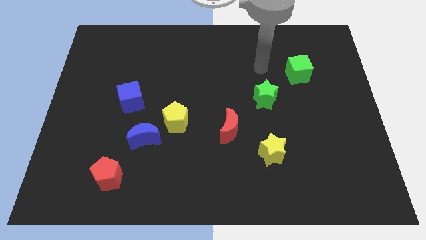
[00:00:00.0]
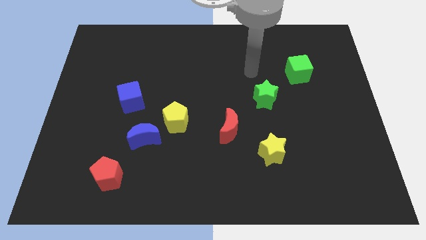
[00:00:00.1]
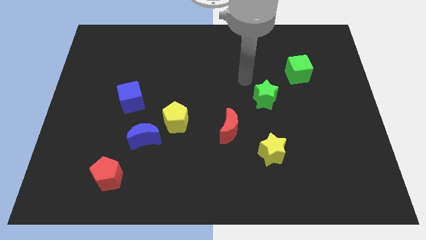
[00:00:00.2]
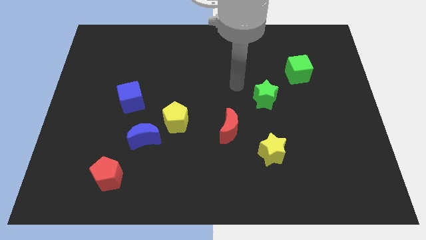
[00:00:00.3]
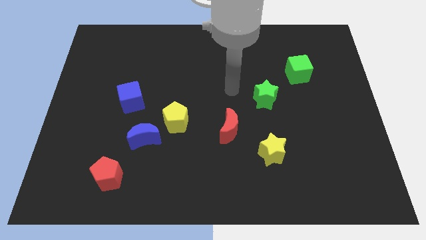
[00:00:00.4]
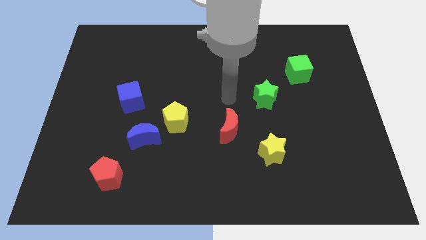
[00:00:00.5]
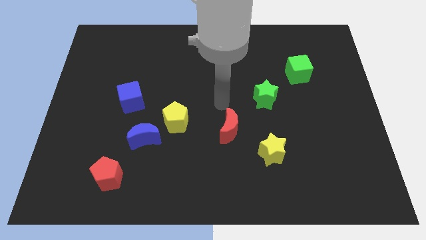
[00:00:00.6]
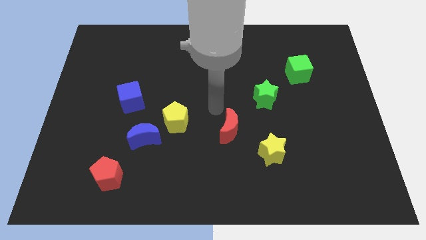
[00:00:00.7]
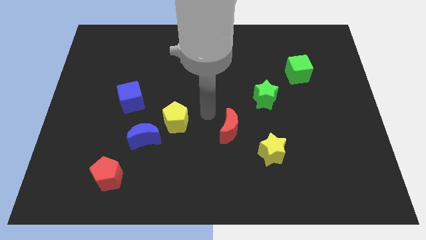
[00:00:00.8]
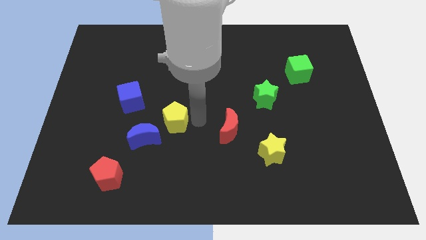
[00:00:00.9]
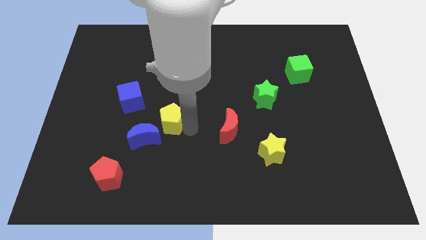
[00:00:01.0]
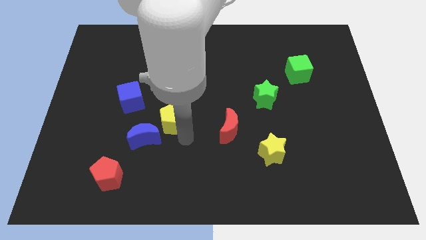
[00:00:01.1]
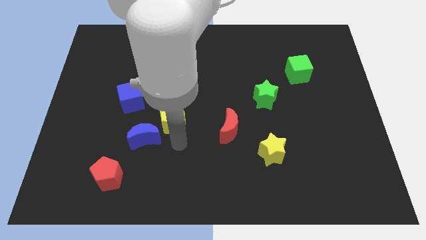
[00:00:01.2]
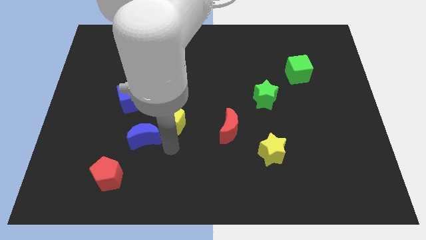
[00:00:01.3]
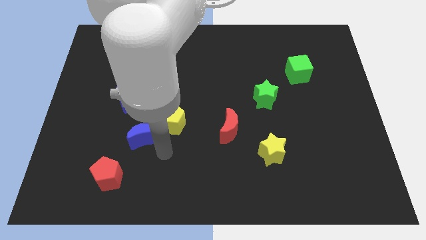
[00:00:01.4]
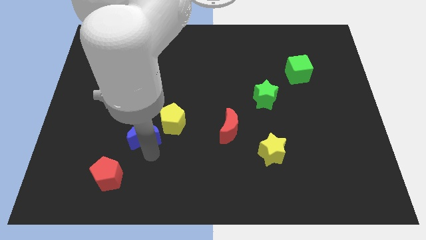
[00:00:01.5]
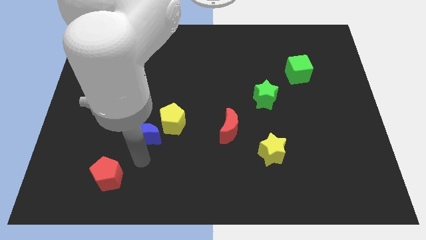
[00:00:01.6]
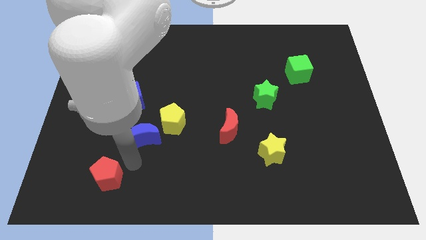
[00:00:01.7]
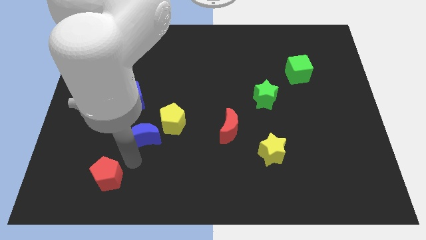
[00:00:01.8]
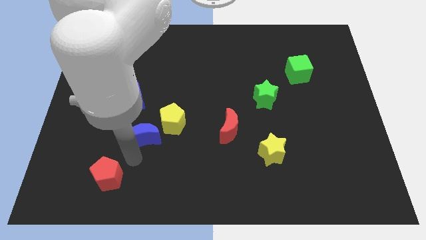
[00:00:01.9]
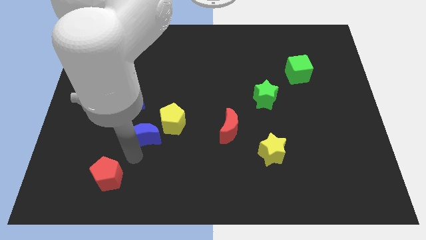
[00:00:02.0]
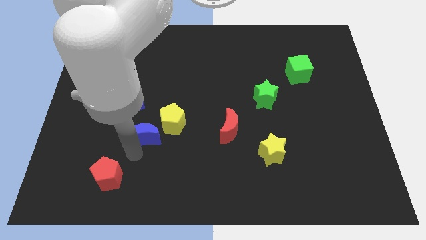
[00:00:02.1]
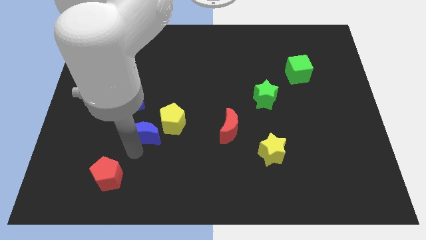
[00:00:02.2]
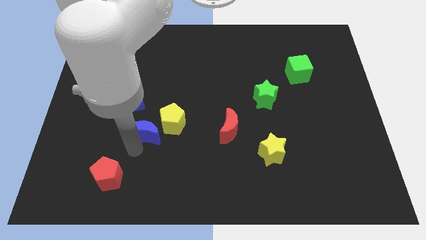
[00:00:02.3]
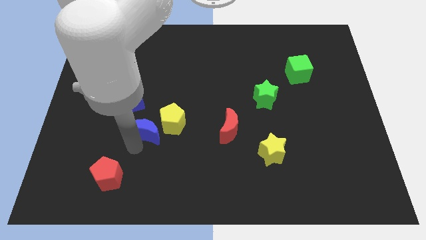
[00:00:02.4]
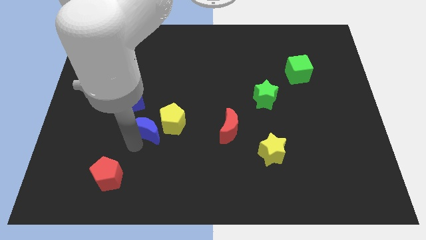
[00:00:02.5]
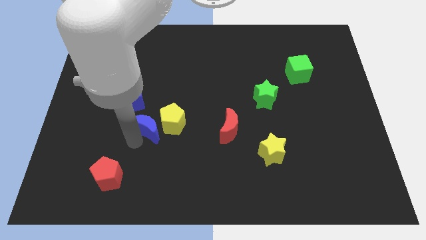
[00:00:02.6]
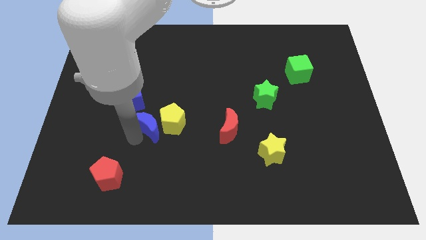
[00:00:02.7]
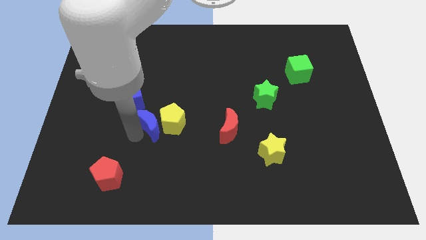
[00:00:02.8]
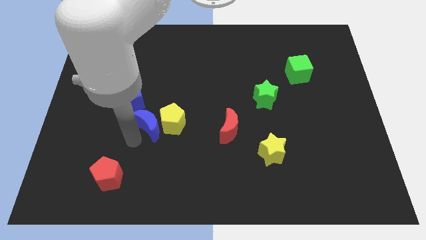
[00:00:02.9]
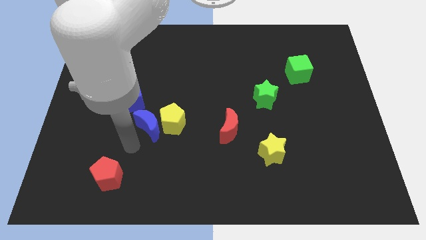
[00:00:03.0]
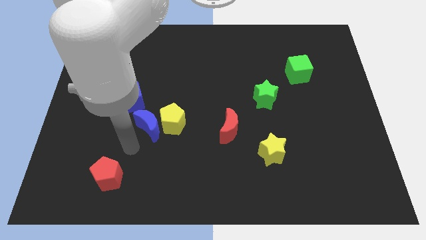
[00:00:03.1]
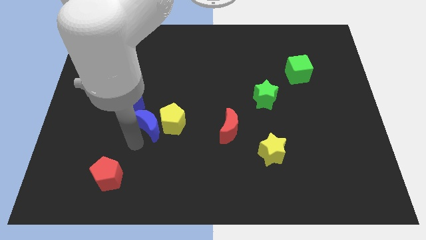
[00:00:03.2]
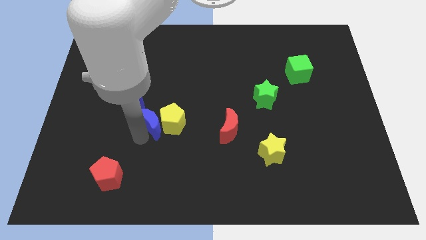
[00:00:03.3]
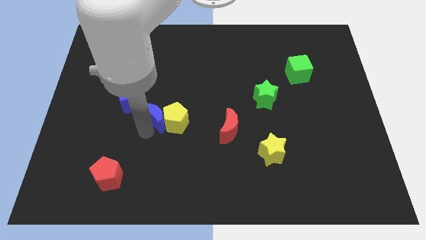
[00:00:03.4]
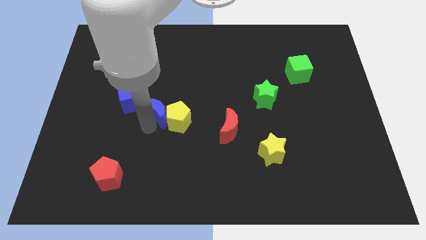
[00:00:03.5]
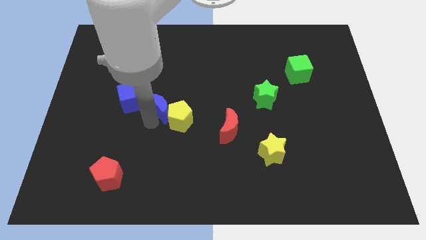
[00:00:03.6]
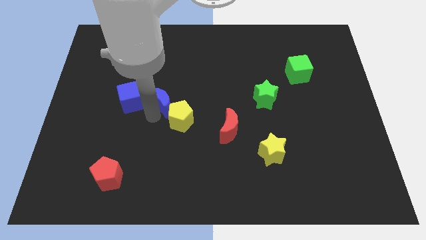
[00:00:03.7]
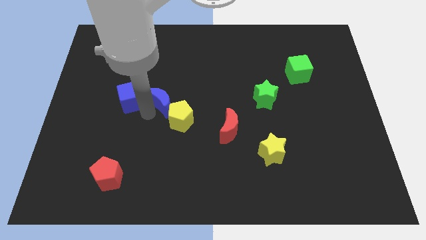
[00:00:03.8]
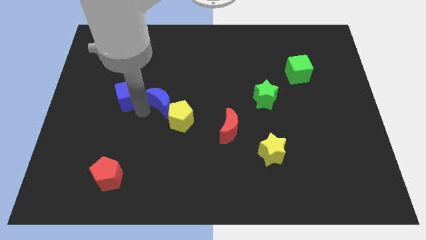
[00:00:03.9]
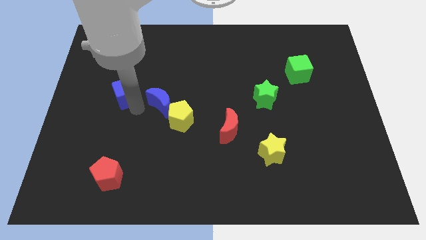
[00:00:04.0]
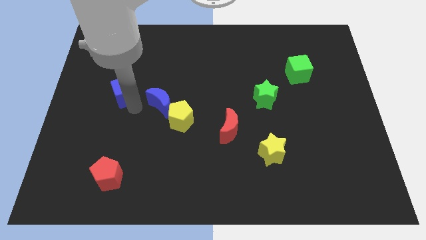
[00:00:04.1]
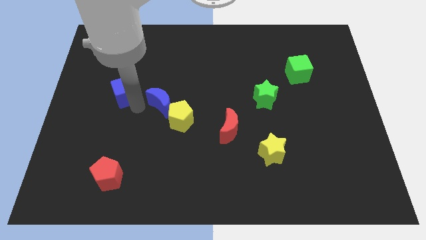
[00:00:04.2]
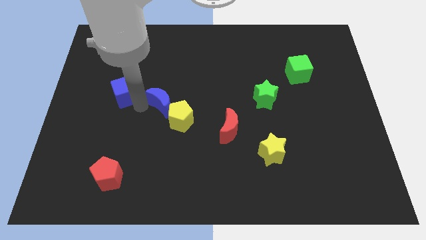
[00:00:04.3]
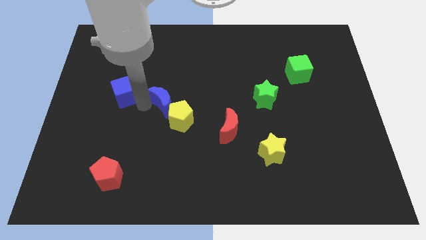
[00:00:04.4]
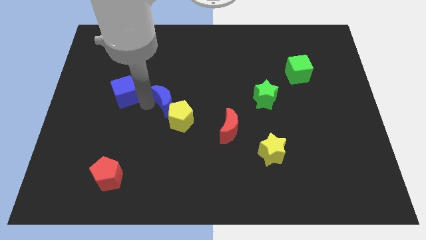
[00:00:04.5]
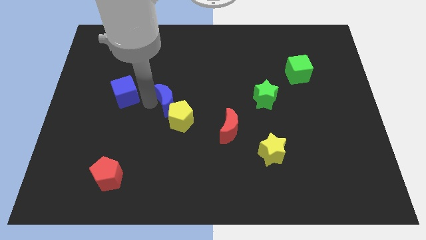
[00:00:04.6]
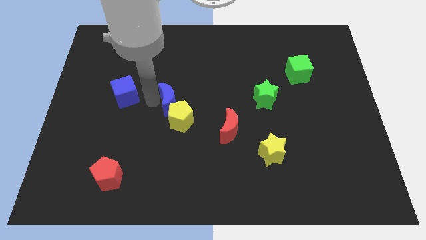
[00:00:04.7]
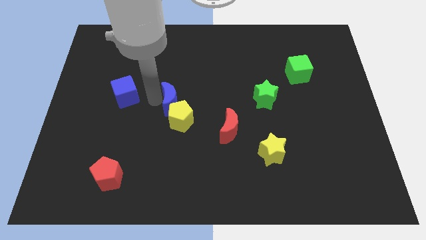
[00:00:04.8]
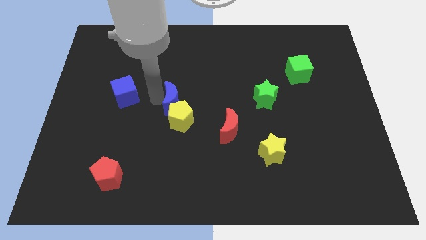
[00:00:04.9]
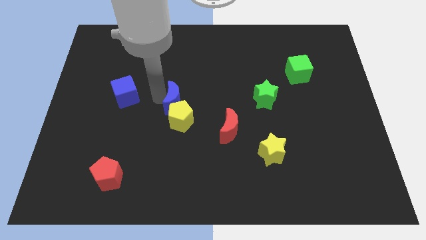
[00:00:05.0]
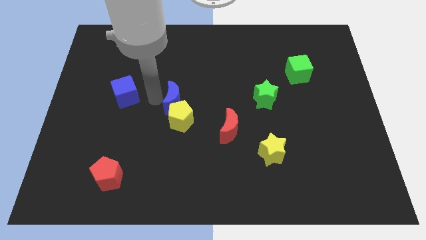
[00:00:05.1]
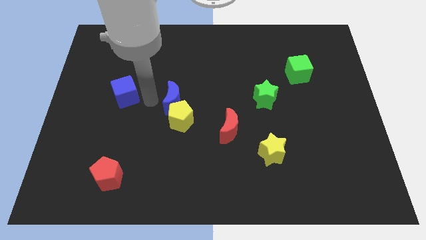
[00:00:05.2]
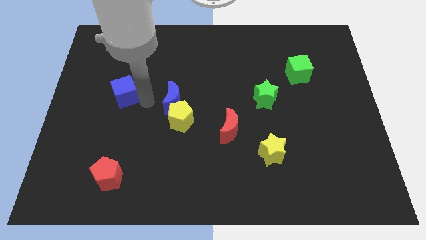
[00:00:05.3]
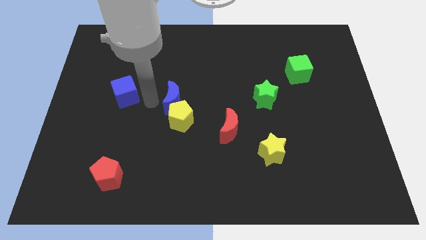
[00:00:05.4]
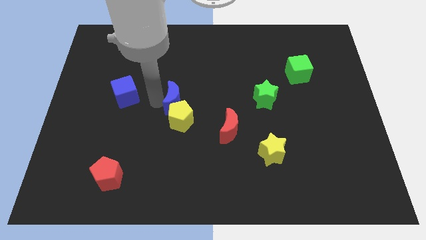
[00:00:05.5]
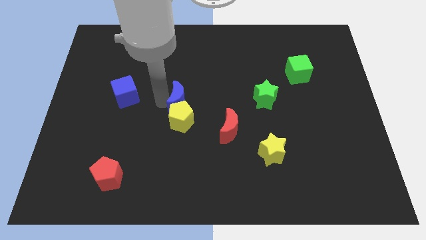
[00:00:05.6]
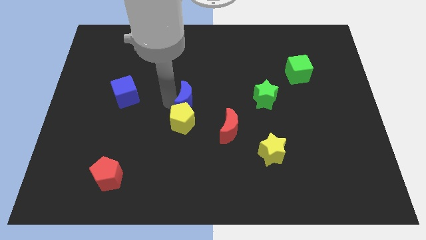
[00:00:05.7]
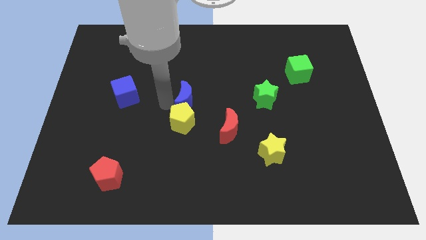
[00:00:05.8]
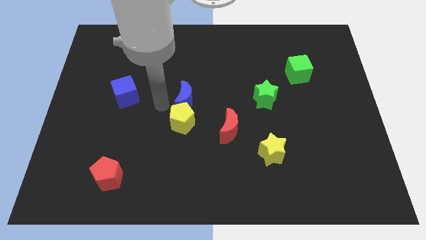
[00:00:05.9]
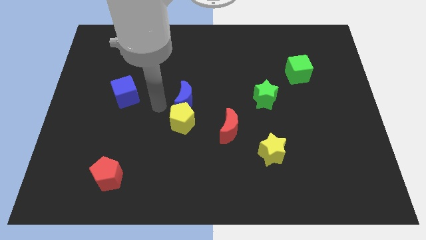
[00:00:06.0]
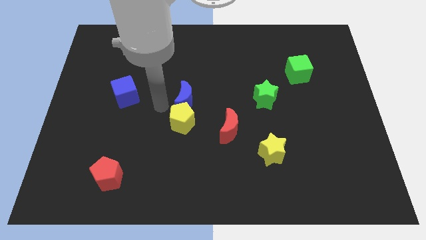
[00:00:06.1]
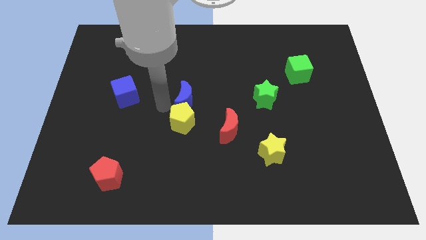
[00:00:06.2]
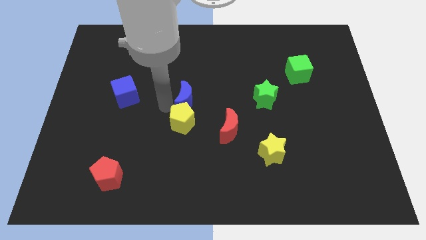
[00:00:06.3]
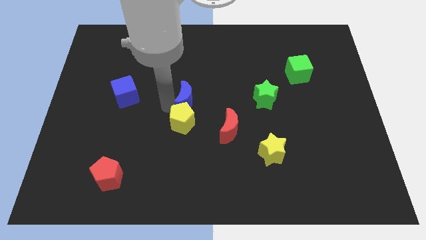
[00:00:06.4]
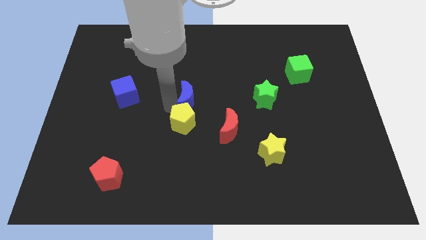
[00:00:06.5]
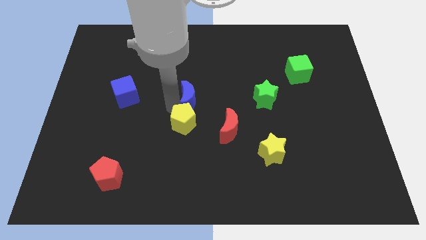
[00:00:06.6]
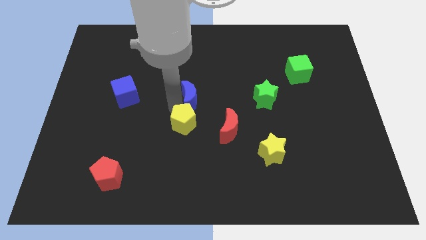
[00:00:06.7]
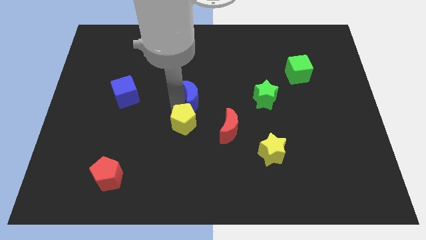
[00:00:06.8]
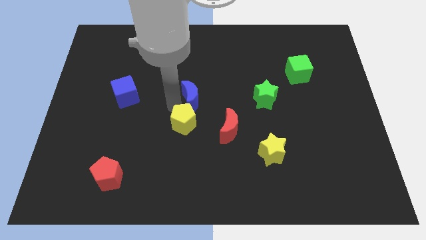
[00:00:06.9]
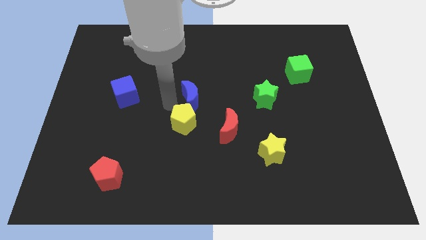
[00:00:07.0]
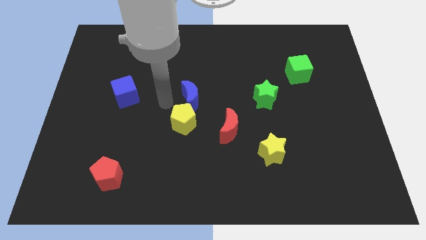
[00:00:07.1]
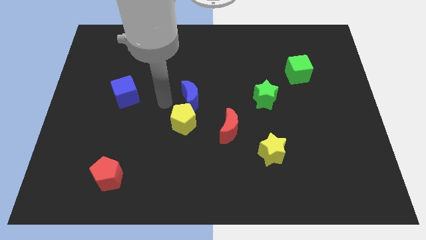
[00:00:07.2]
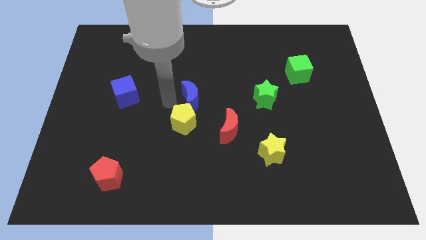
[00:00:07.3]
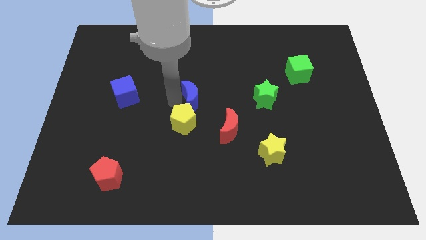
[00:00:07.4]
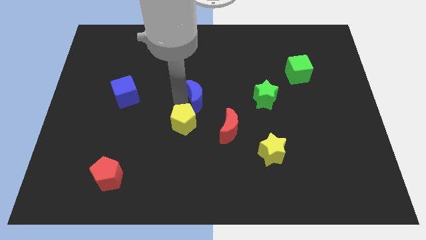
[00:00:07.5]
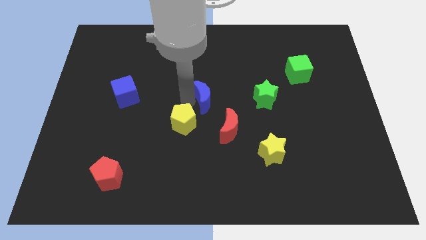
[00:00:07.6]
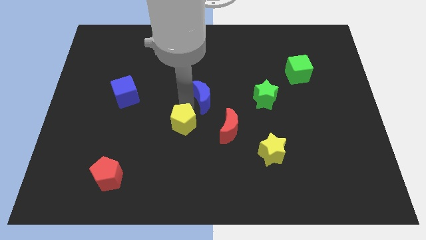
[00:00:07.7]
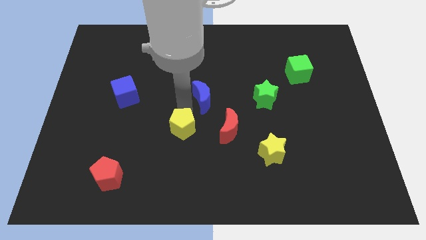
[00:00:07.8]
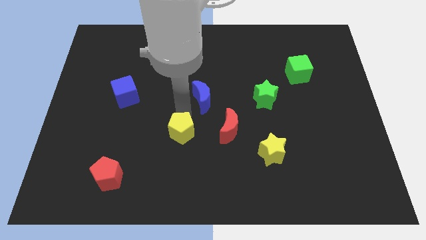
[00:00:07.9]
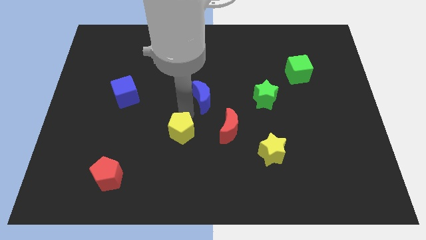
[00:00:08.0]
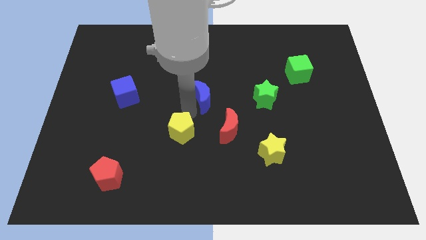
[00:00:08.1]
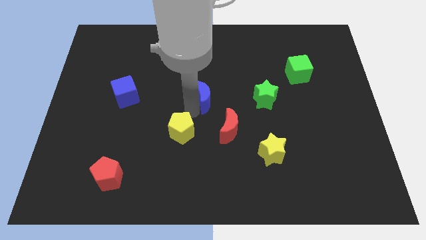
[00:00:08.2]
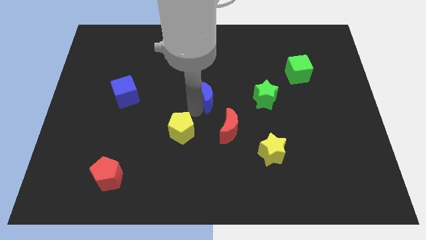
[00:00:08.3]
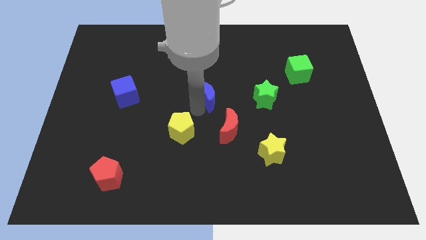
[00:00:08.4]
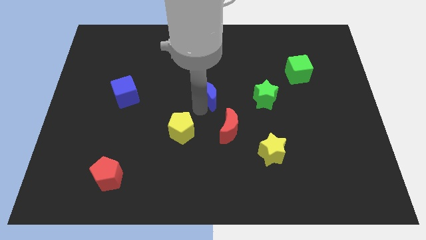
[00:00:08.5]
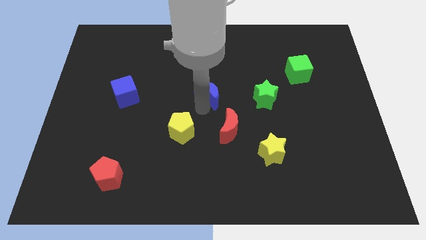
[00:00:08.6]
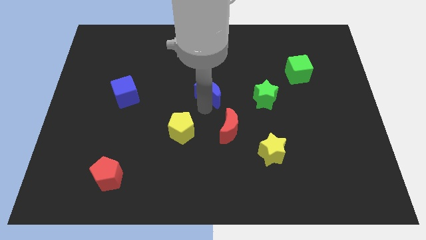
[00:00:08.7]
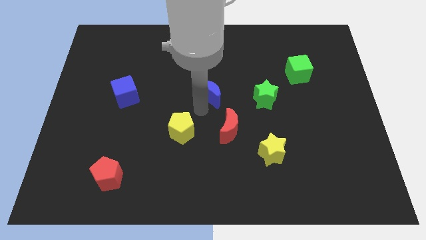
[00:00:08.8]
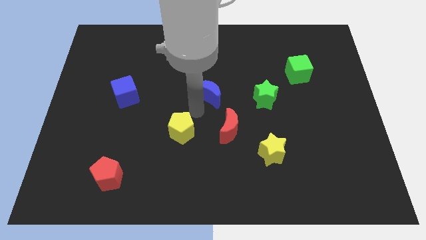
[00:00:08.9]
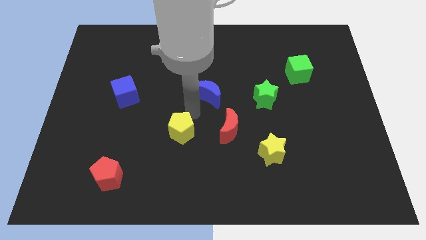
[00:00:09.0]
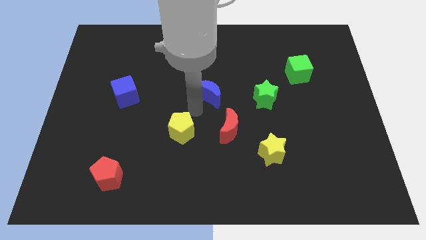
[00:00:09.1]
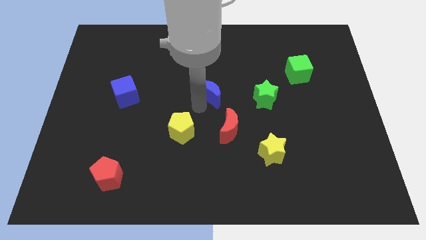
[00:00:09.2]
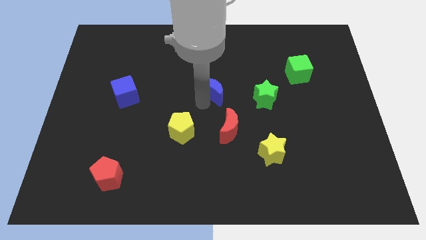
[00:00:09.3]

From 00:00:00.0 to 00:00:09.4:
slide the blue moon diagonally up and to the right
